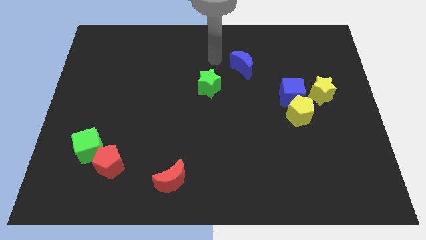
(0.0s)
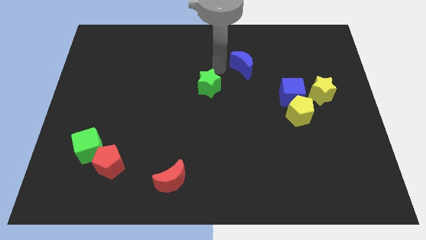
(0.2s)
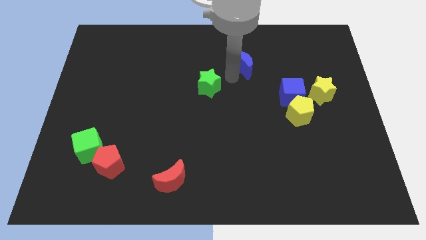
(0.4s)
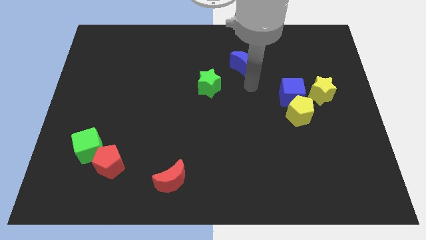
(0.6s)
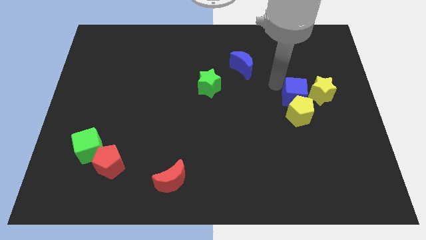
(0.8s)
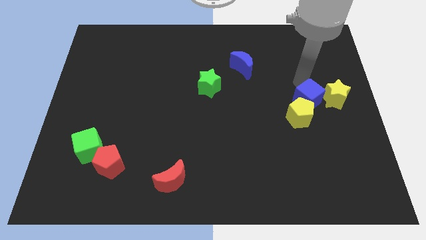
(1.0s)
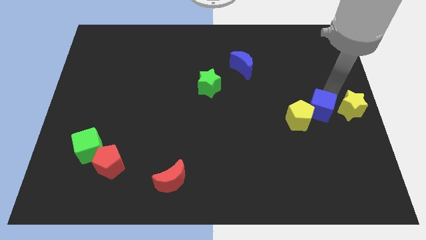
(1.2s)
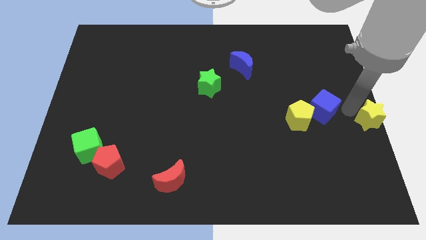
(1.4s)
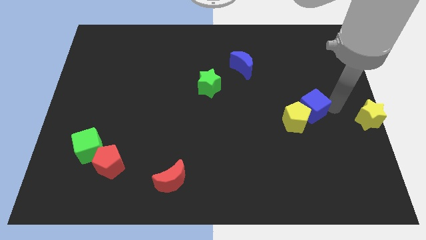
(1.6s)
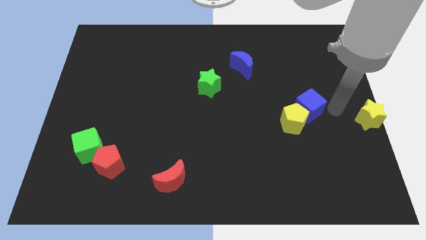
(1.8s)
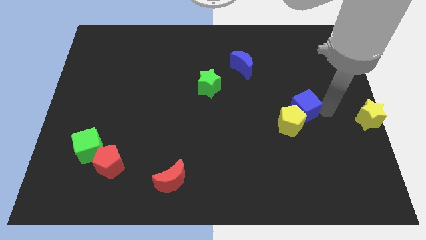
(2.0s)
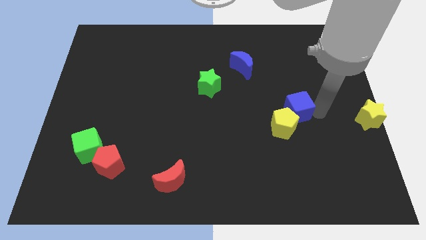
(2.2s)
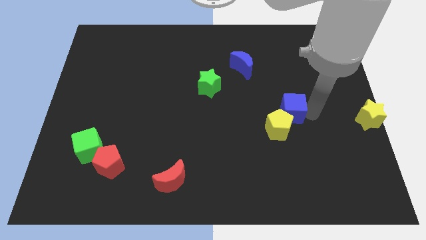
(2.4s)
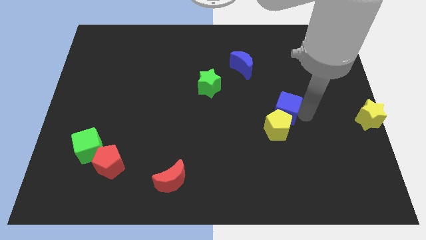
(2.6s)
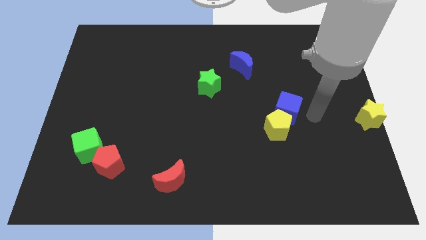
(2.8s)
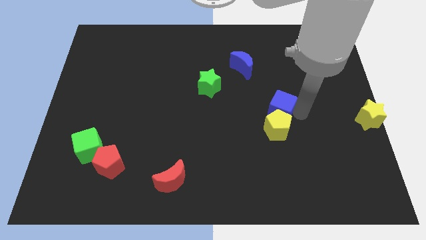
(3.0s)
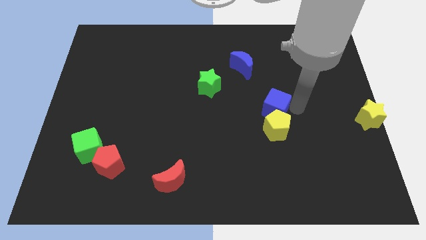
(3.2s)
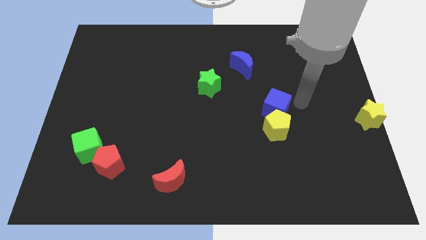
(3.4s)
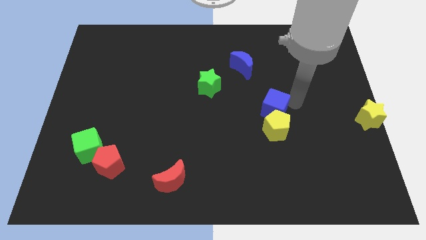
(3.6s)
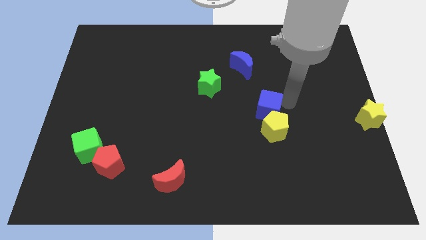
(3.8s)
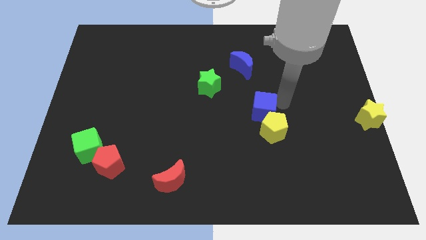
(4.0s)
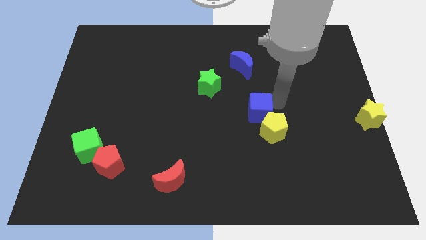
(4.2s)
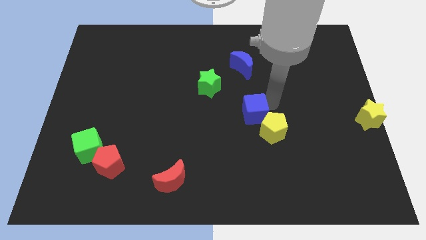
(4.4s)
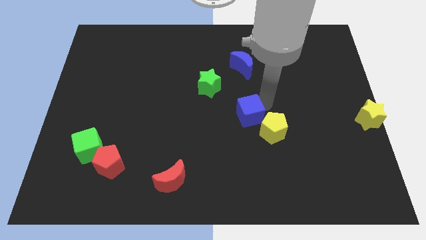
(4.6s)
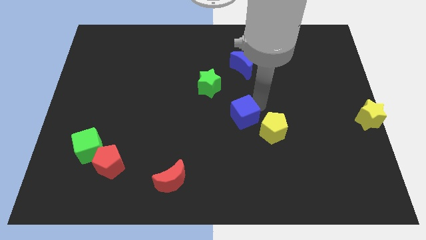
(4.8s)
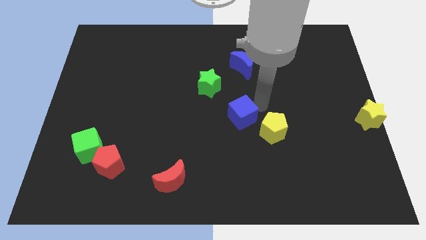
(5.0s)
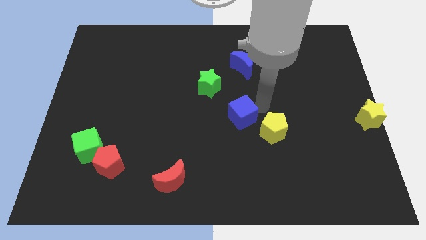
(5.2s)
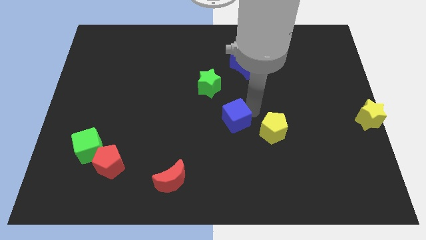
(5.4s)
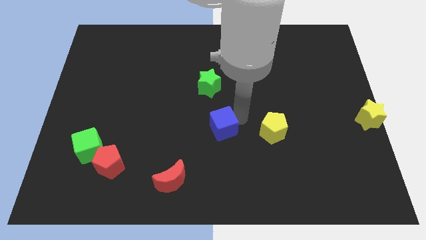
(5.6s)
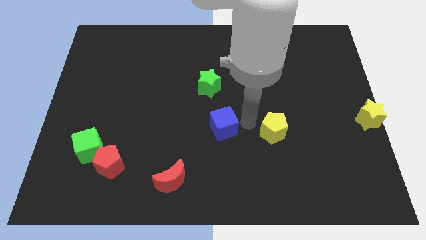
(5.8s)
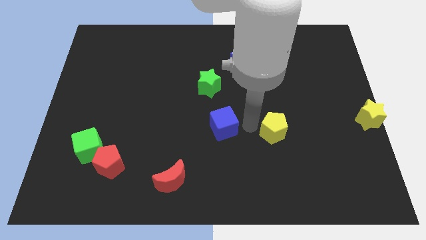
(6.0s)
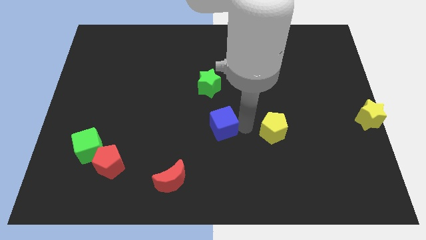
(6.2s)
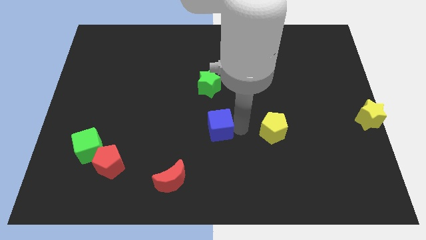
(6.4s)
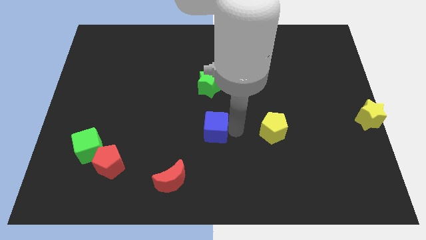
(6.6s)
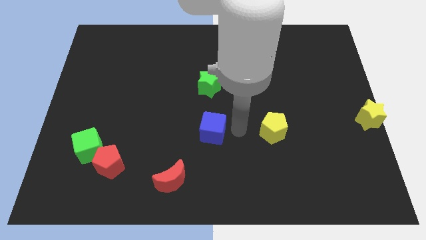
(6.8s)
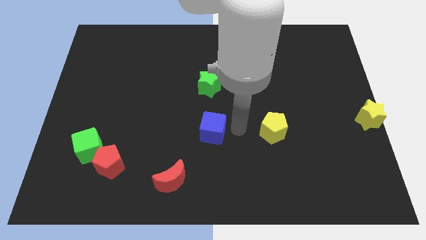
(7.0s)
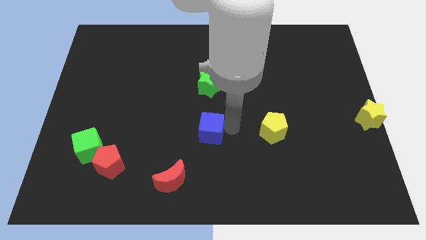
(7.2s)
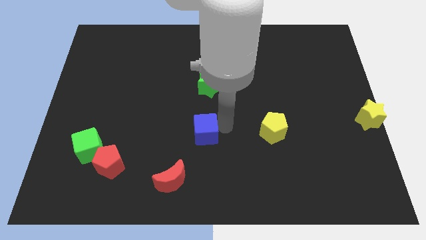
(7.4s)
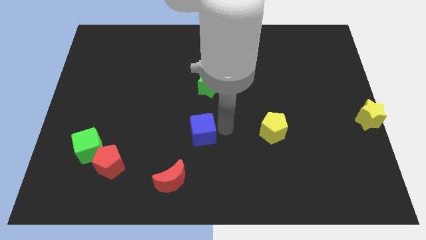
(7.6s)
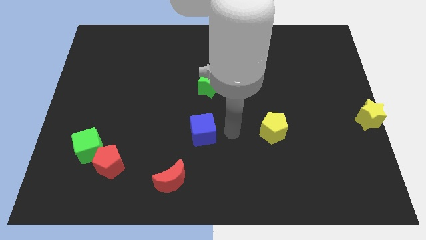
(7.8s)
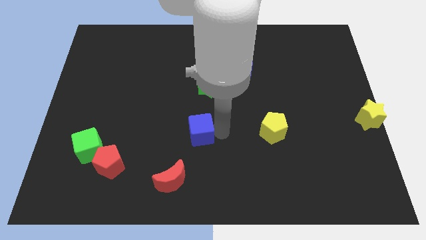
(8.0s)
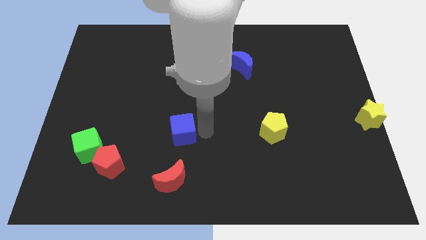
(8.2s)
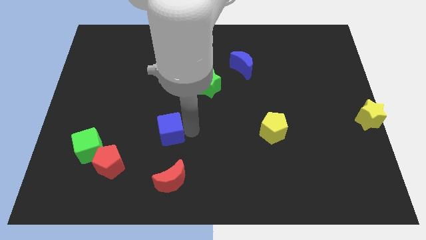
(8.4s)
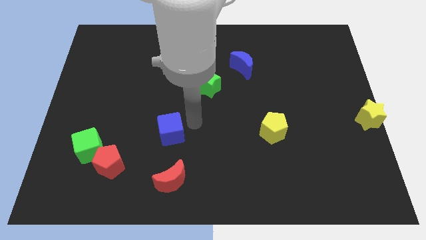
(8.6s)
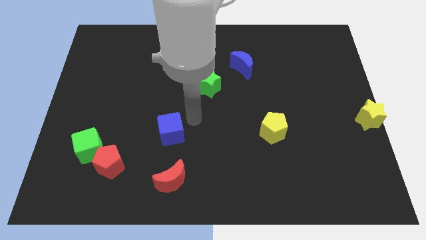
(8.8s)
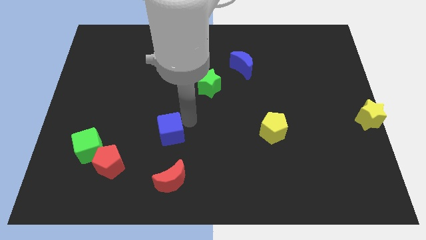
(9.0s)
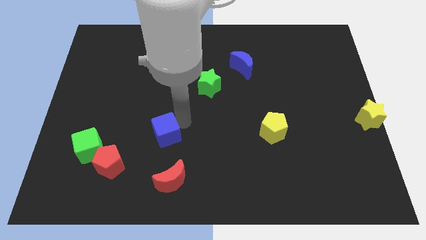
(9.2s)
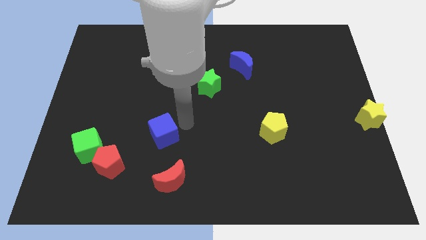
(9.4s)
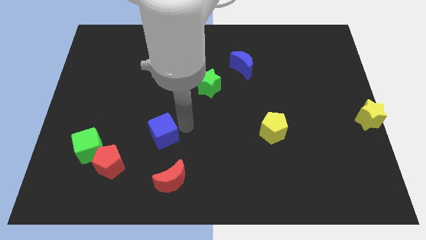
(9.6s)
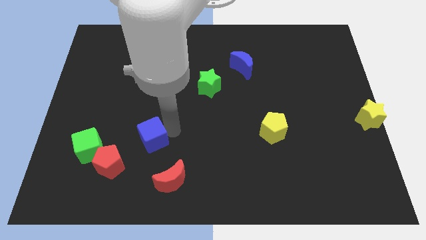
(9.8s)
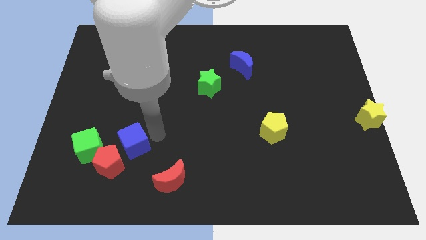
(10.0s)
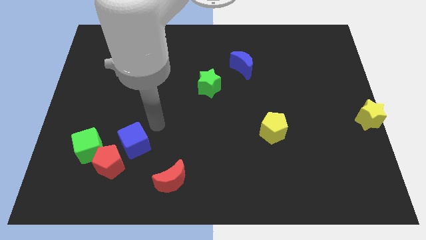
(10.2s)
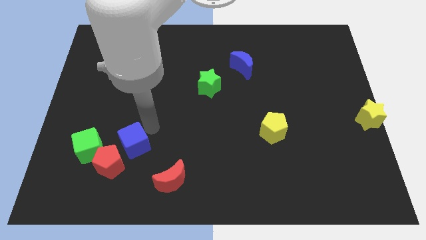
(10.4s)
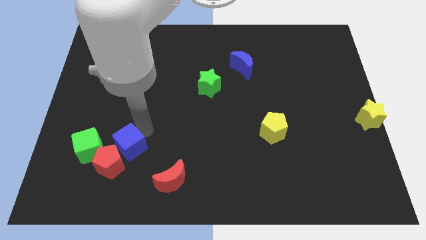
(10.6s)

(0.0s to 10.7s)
put the blue cube to the red pentagon

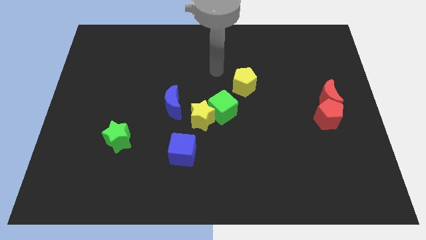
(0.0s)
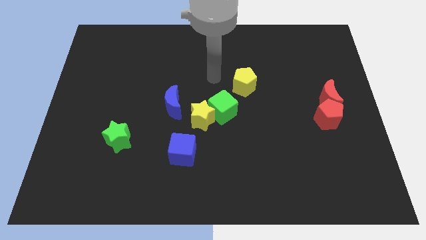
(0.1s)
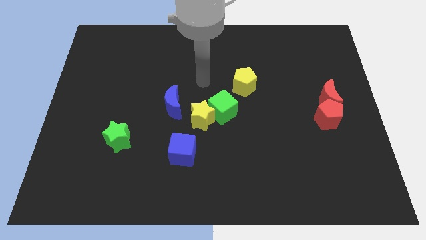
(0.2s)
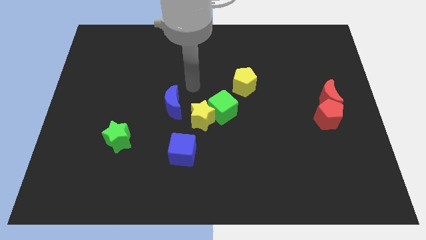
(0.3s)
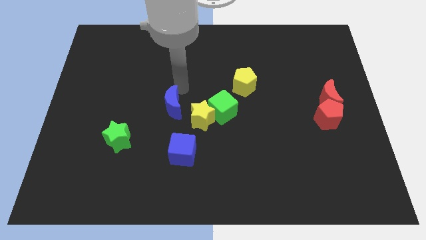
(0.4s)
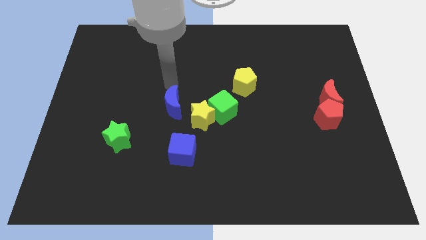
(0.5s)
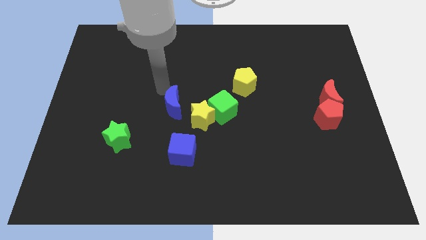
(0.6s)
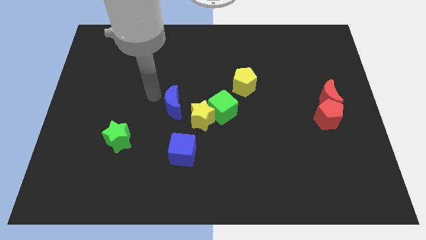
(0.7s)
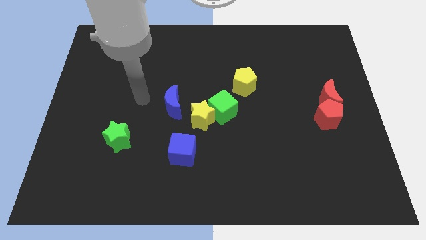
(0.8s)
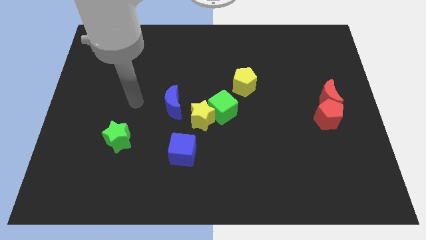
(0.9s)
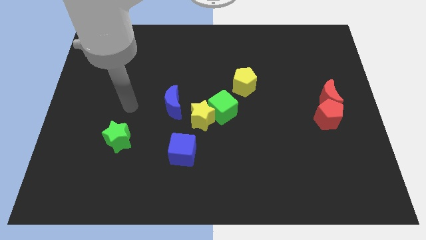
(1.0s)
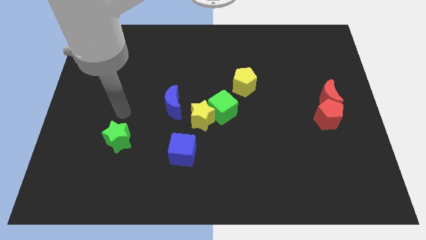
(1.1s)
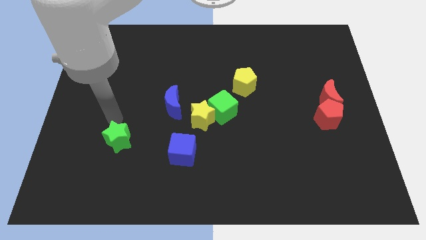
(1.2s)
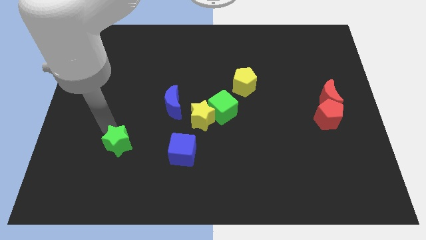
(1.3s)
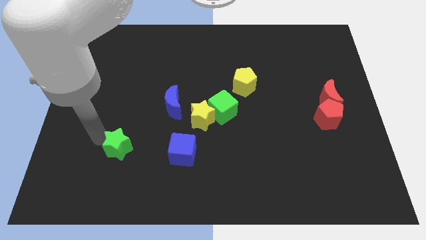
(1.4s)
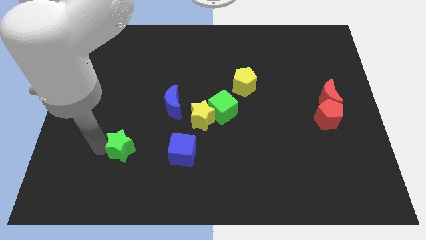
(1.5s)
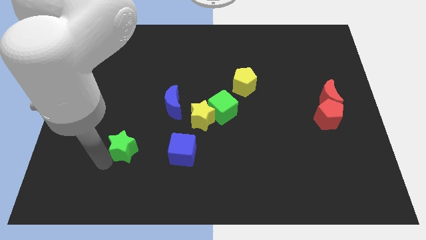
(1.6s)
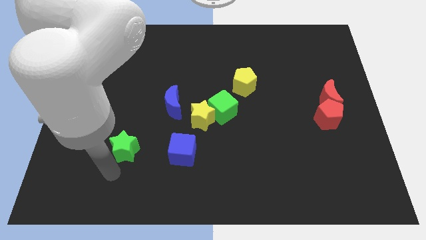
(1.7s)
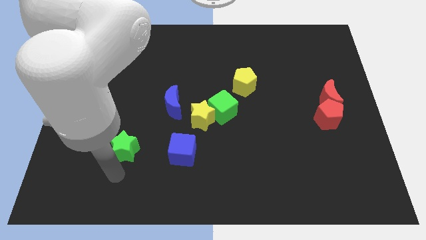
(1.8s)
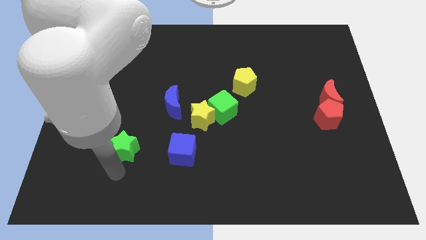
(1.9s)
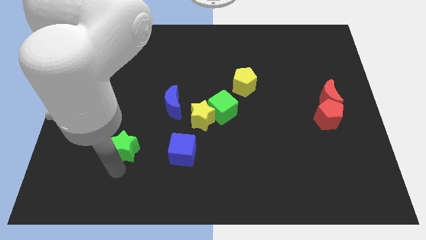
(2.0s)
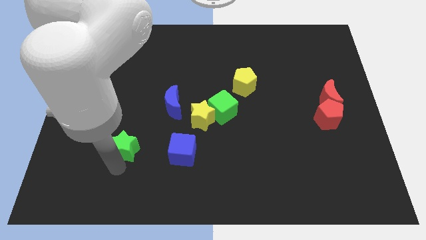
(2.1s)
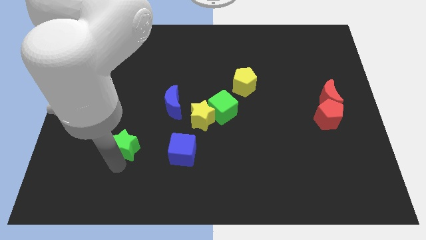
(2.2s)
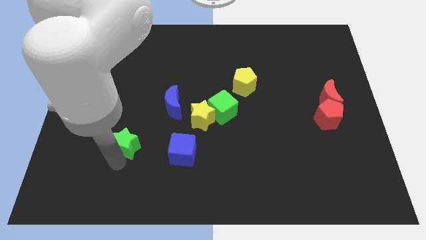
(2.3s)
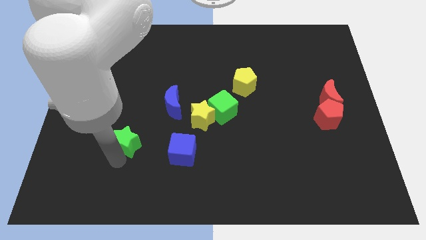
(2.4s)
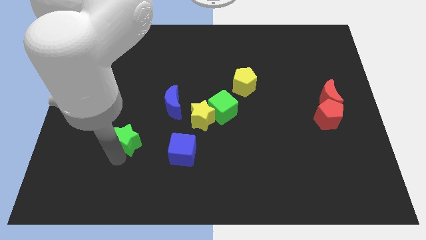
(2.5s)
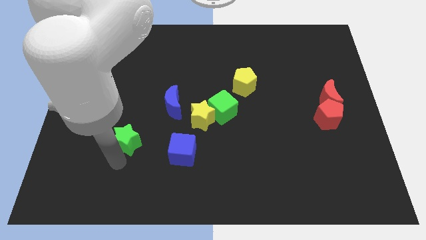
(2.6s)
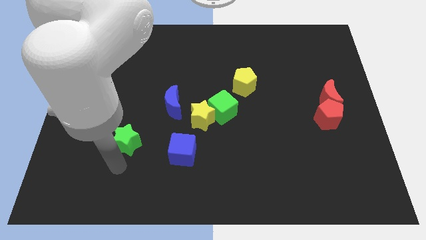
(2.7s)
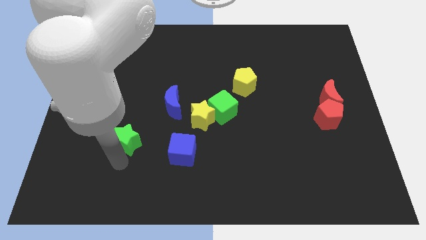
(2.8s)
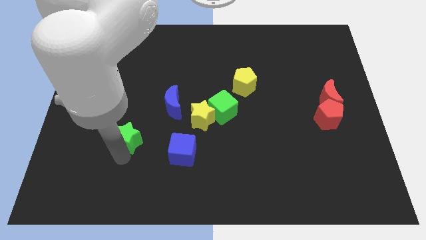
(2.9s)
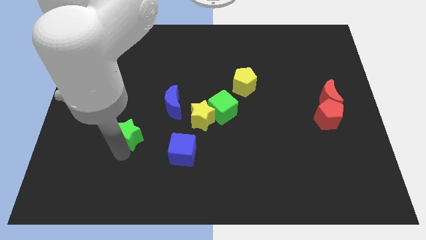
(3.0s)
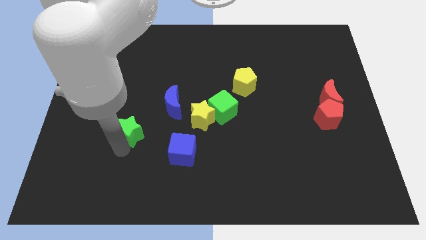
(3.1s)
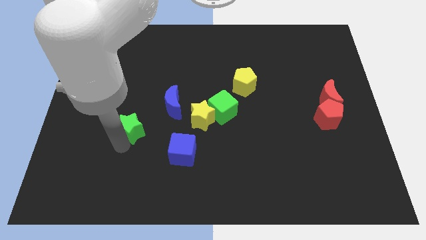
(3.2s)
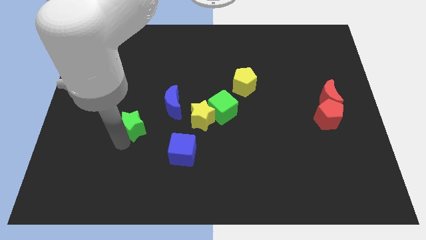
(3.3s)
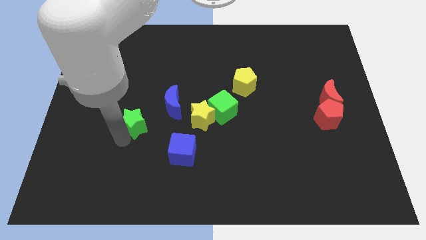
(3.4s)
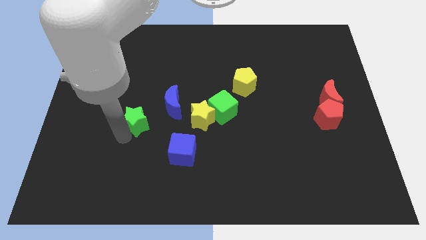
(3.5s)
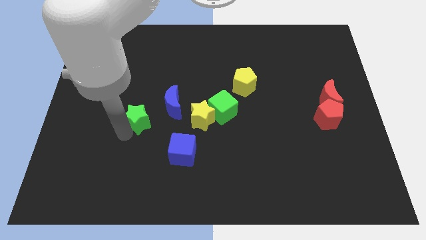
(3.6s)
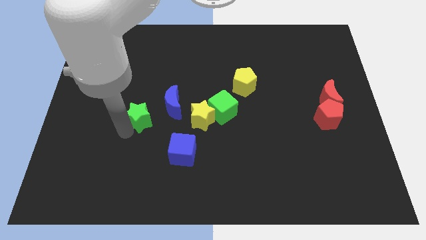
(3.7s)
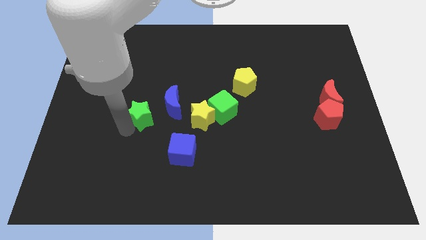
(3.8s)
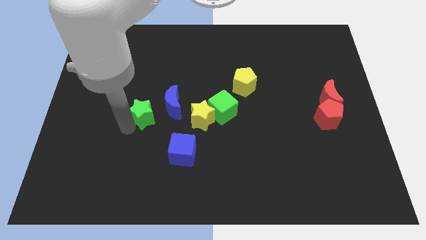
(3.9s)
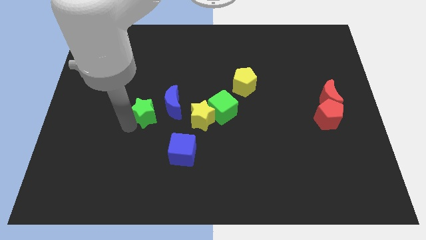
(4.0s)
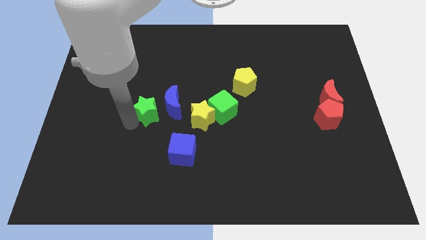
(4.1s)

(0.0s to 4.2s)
move the green star towards the blue moon
